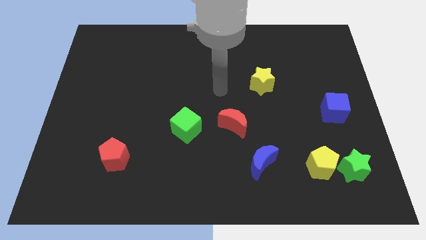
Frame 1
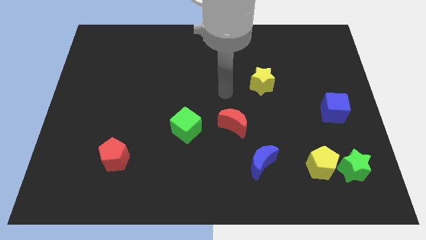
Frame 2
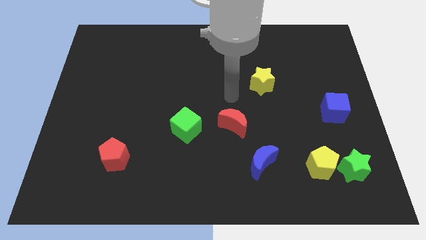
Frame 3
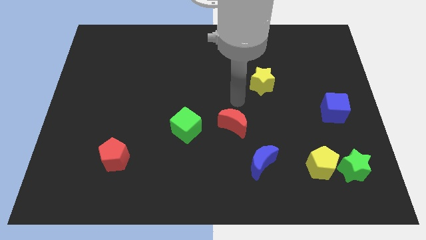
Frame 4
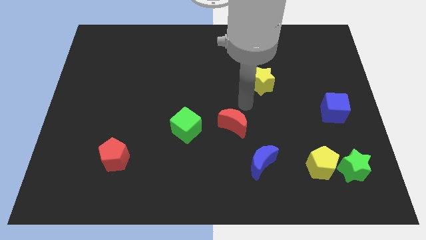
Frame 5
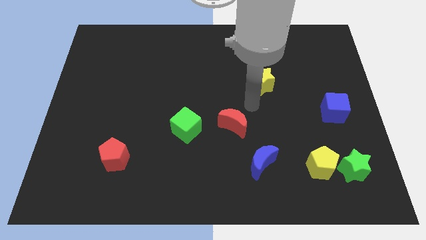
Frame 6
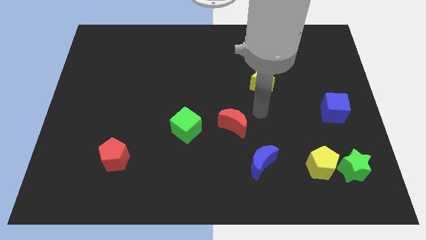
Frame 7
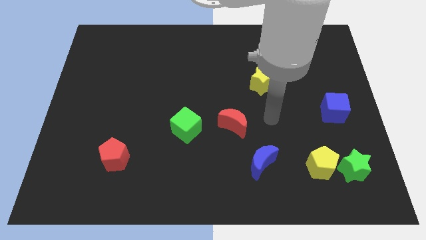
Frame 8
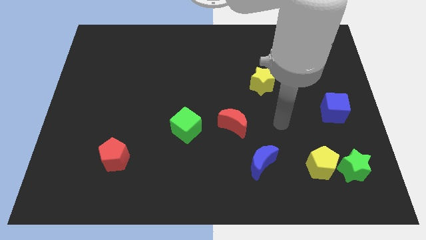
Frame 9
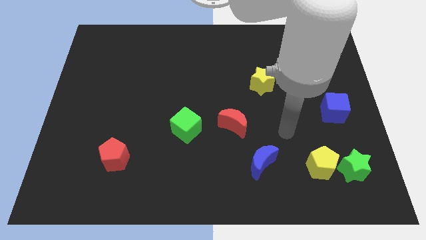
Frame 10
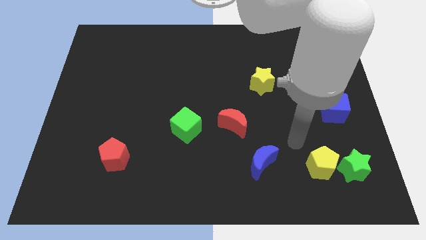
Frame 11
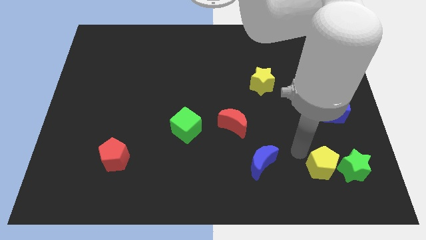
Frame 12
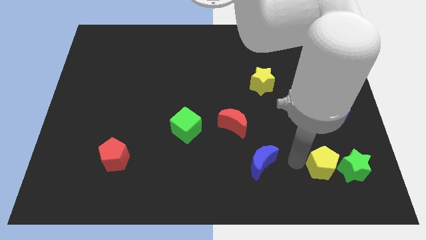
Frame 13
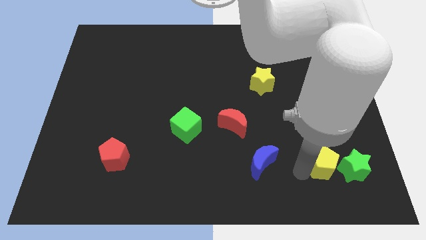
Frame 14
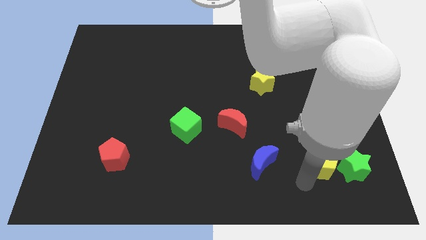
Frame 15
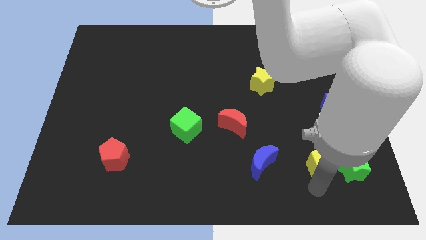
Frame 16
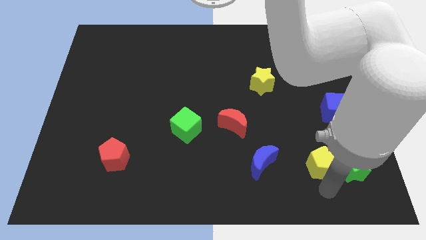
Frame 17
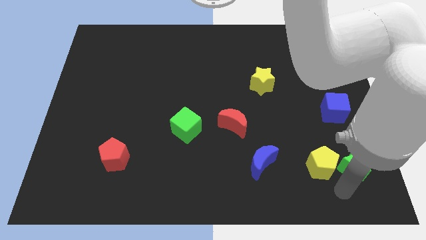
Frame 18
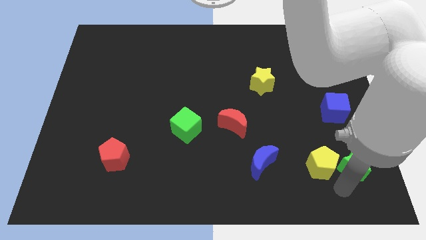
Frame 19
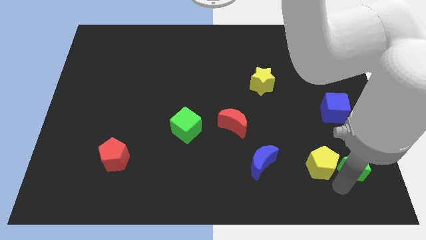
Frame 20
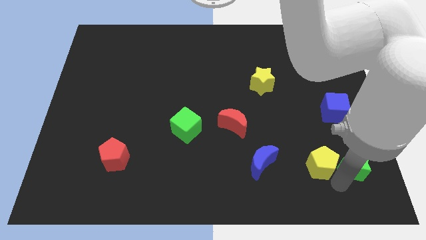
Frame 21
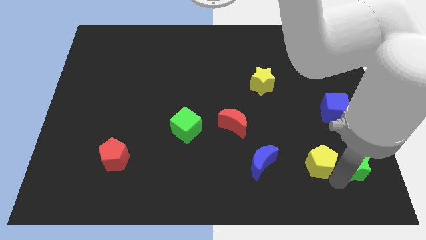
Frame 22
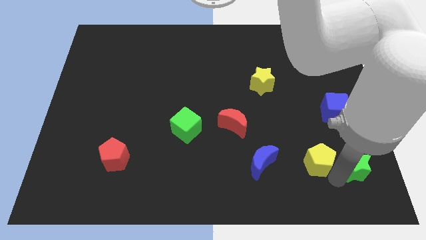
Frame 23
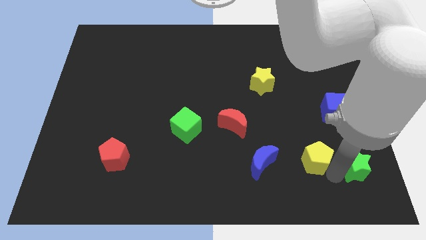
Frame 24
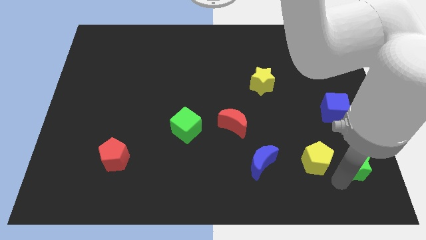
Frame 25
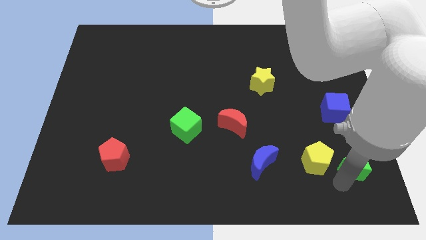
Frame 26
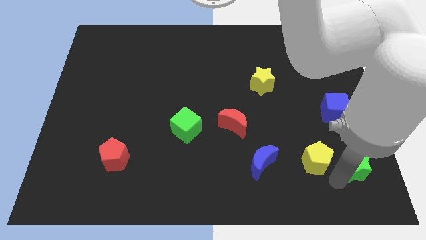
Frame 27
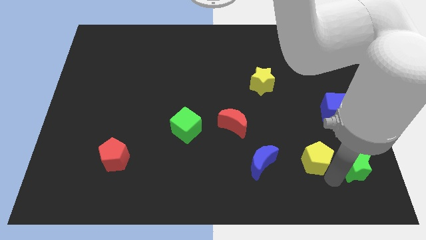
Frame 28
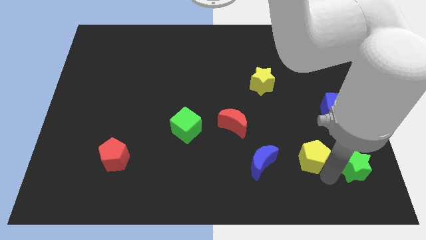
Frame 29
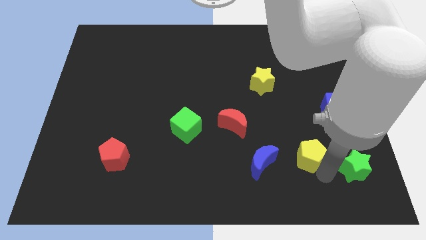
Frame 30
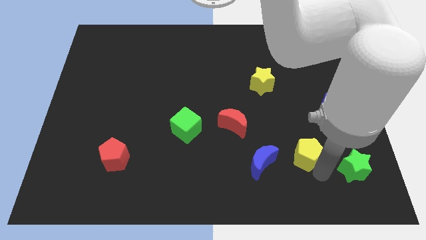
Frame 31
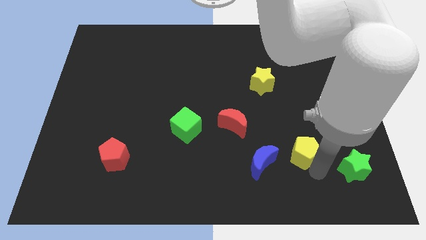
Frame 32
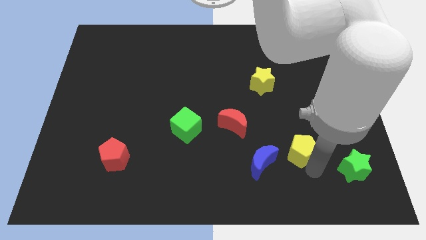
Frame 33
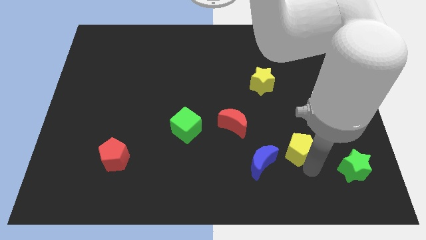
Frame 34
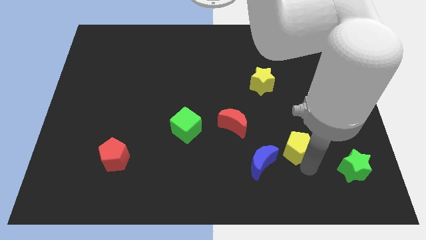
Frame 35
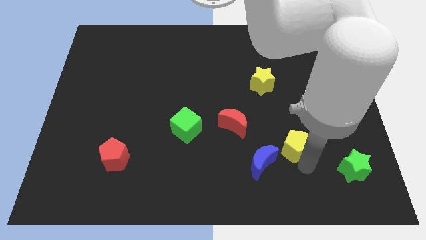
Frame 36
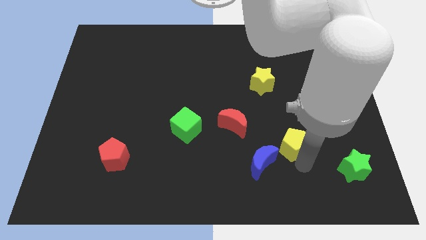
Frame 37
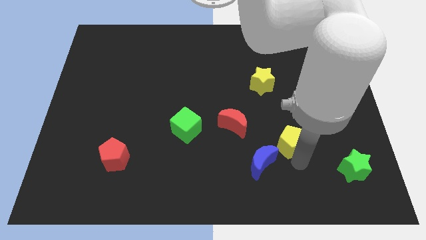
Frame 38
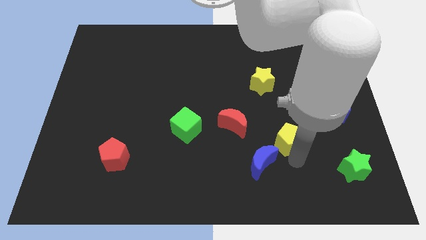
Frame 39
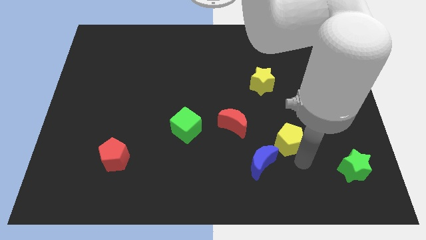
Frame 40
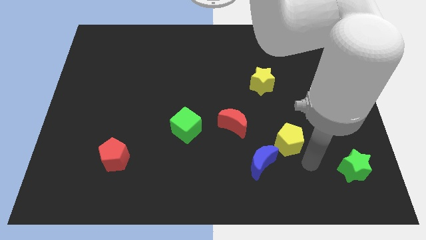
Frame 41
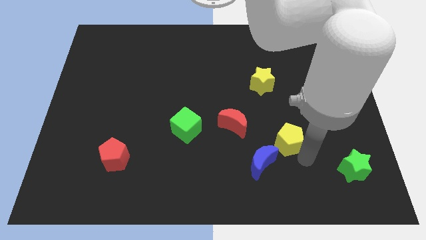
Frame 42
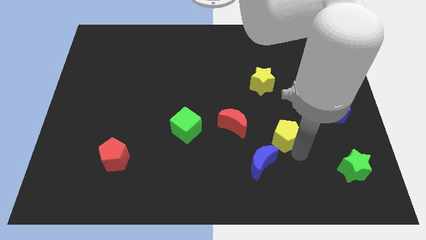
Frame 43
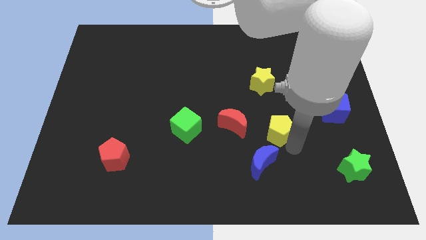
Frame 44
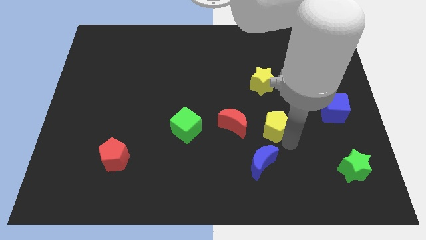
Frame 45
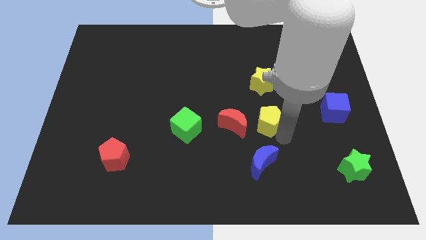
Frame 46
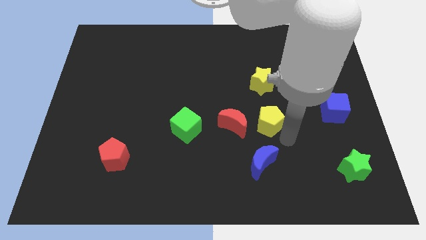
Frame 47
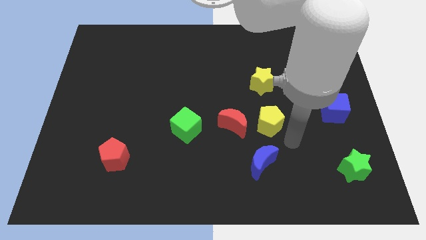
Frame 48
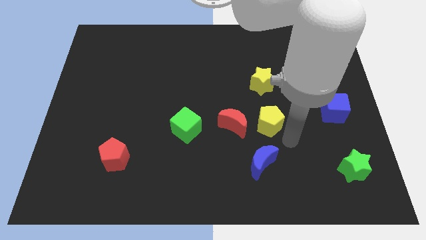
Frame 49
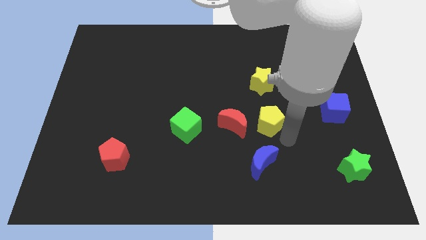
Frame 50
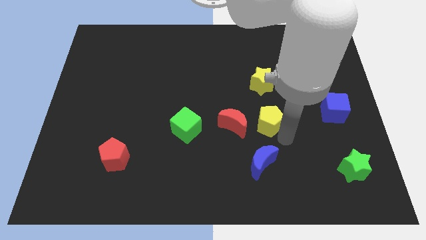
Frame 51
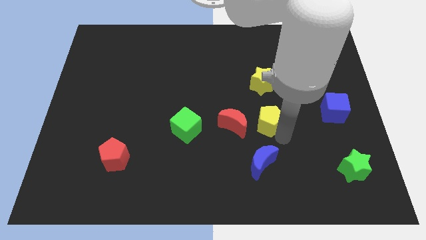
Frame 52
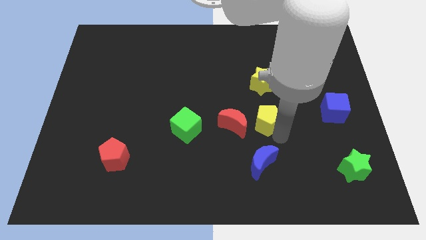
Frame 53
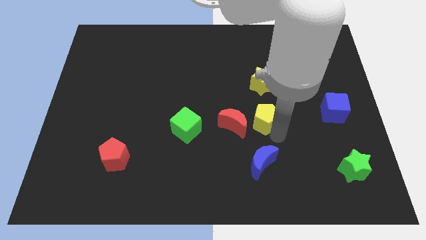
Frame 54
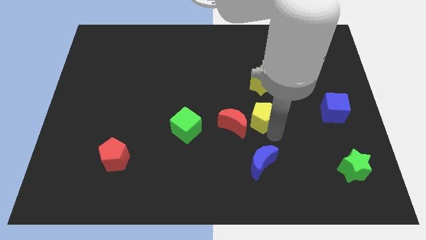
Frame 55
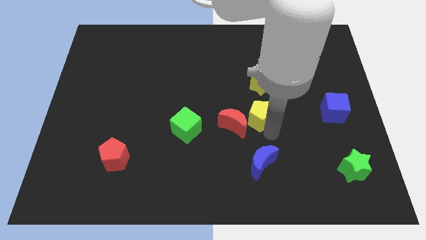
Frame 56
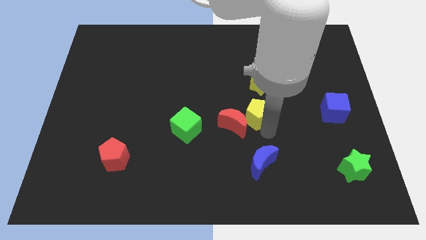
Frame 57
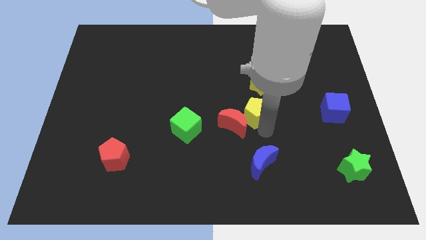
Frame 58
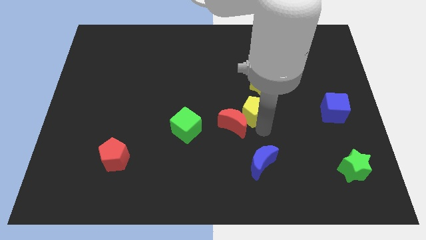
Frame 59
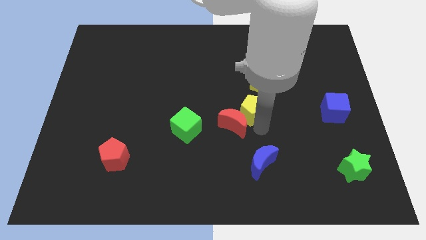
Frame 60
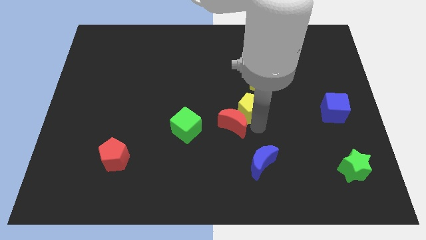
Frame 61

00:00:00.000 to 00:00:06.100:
move the yellow pentagon upwards and left diagonally

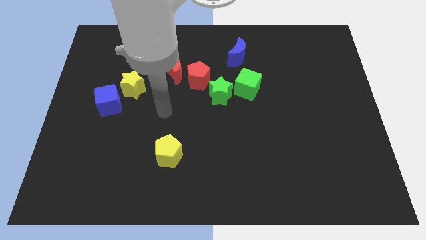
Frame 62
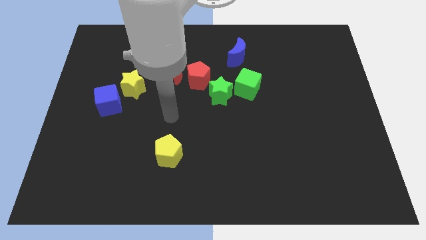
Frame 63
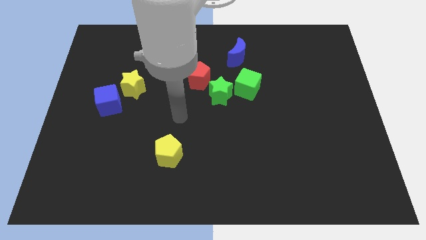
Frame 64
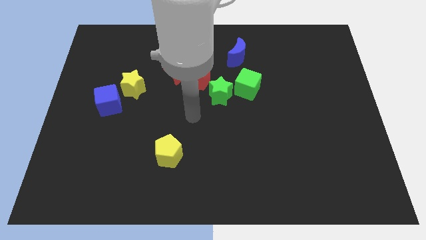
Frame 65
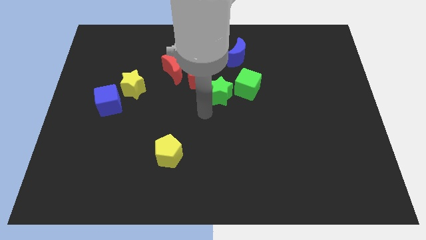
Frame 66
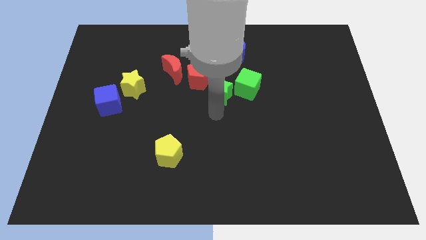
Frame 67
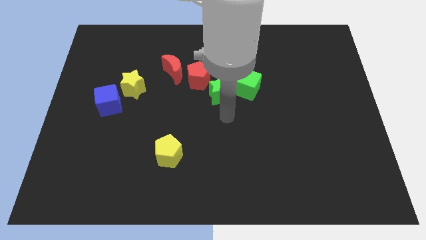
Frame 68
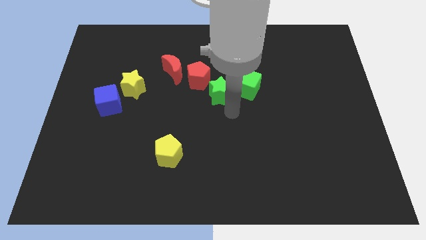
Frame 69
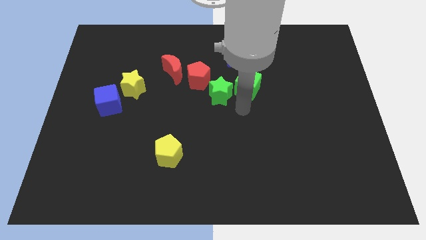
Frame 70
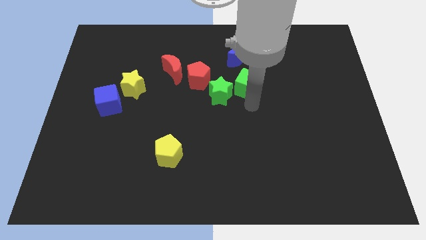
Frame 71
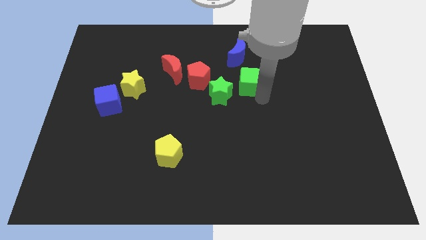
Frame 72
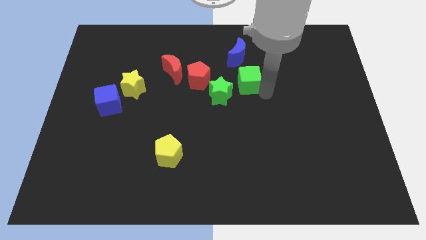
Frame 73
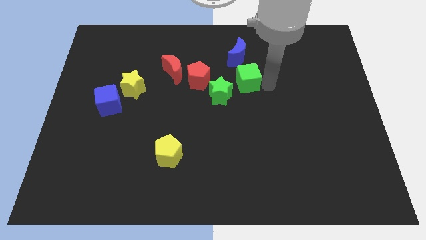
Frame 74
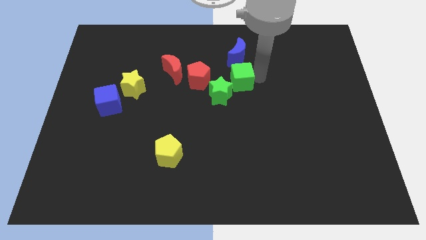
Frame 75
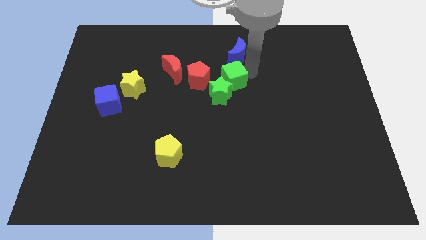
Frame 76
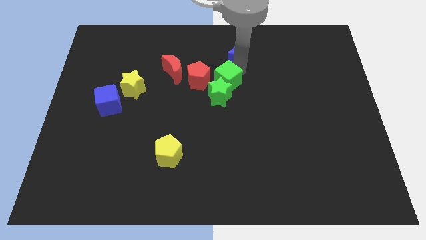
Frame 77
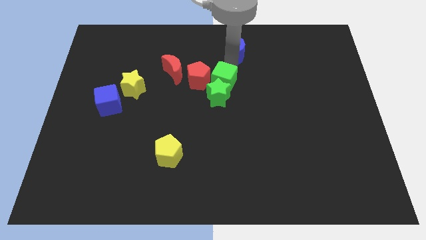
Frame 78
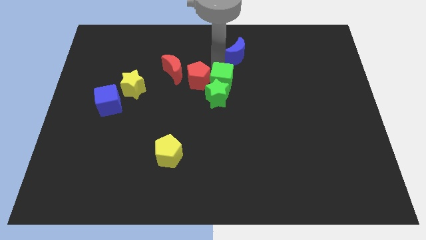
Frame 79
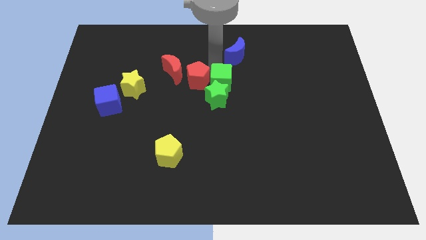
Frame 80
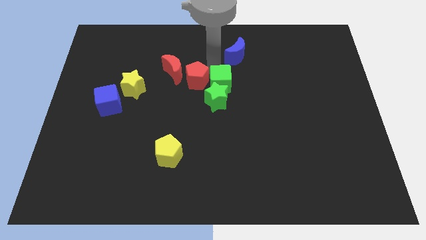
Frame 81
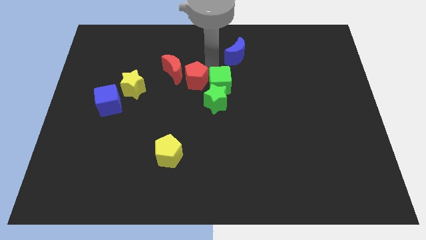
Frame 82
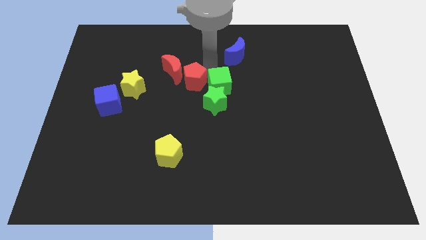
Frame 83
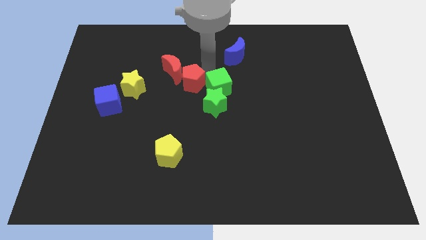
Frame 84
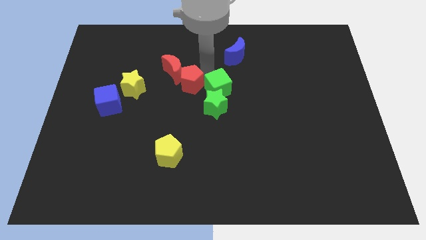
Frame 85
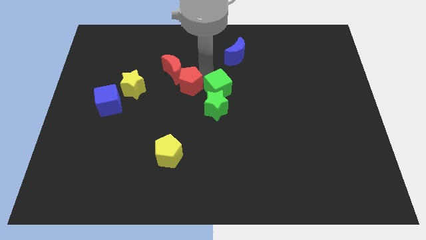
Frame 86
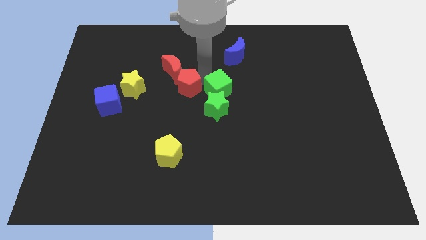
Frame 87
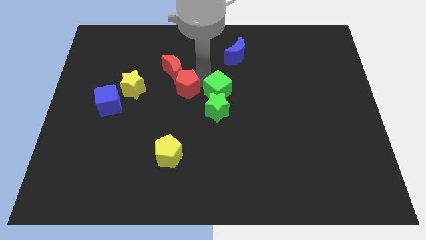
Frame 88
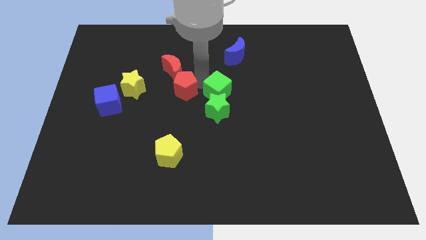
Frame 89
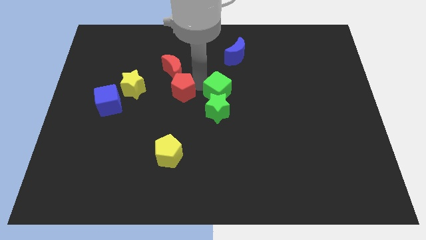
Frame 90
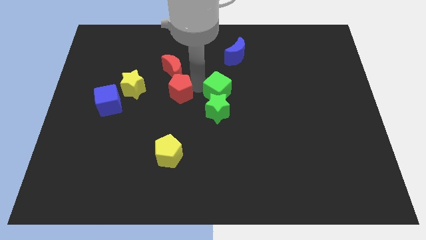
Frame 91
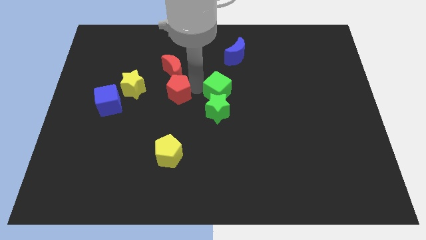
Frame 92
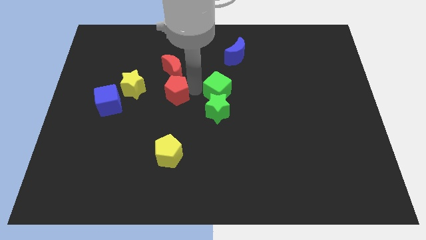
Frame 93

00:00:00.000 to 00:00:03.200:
push the red pentagon a little bit downwards and to the left
